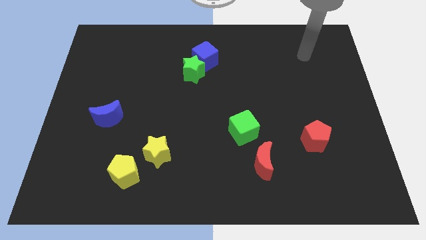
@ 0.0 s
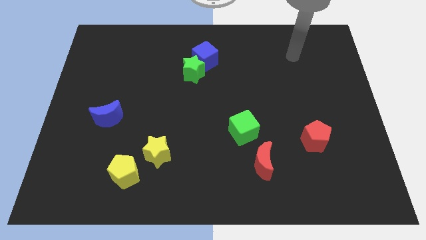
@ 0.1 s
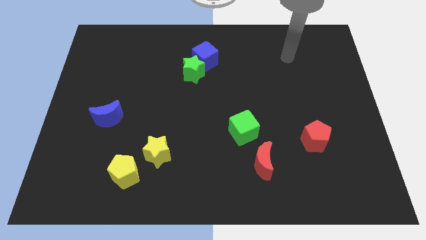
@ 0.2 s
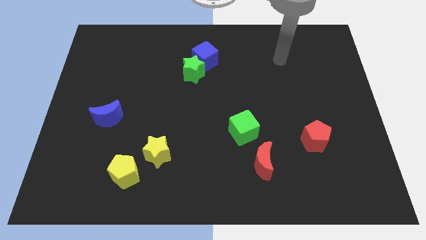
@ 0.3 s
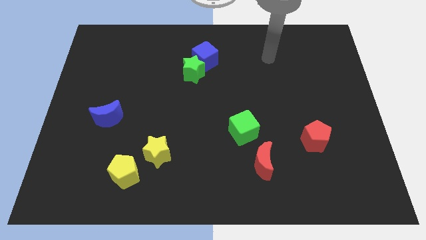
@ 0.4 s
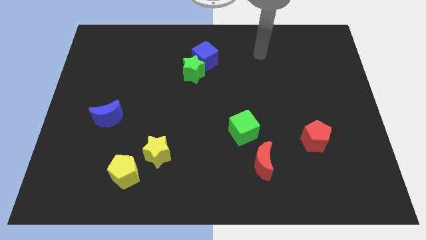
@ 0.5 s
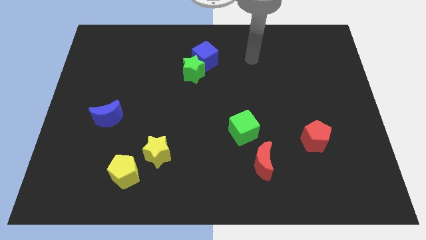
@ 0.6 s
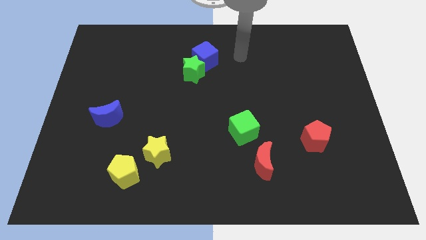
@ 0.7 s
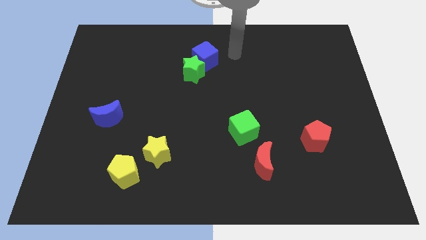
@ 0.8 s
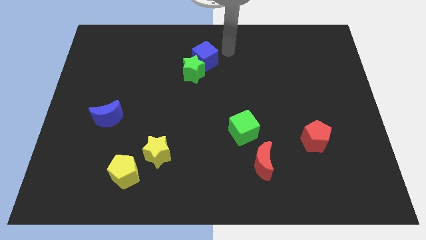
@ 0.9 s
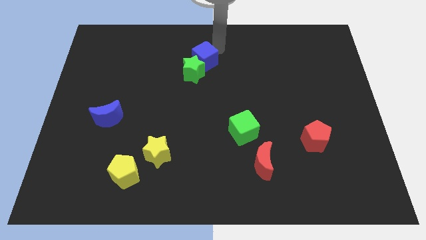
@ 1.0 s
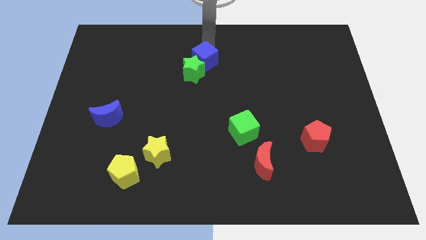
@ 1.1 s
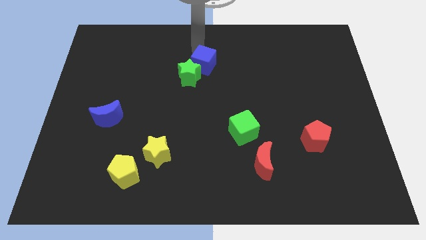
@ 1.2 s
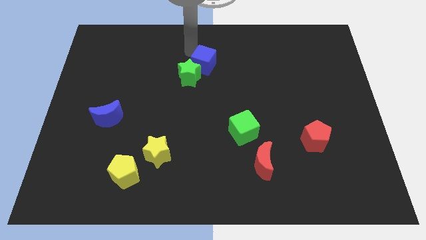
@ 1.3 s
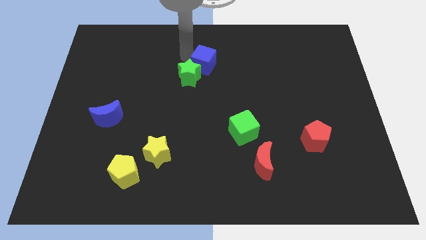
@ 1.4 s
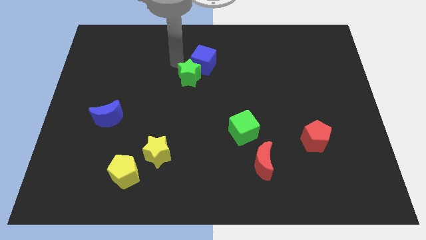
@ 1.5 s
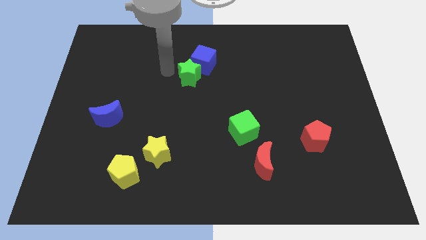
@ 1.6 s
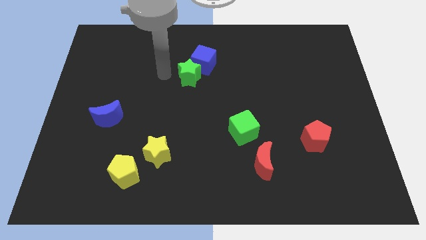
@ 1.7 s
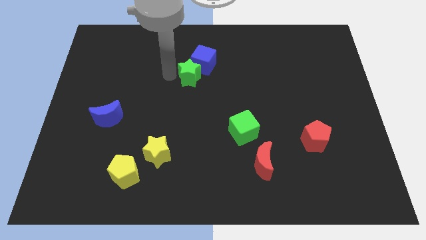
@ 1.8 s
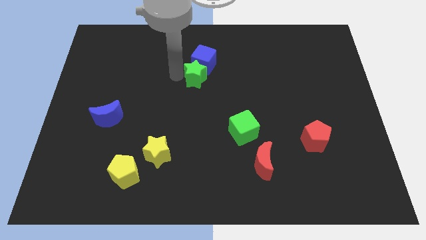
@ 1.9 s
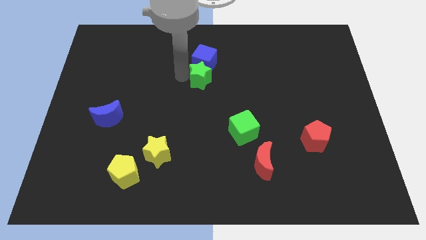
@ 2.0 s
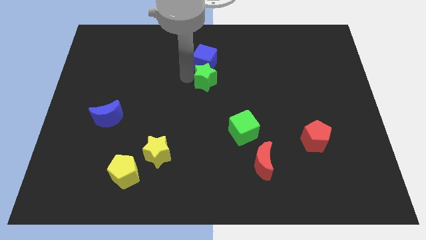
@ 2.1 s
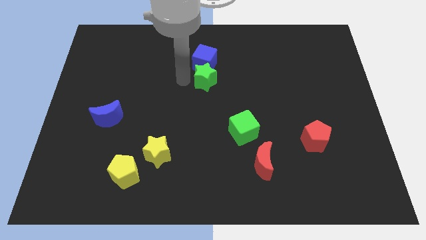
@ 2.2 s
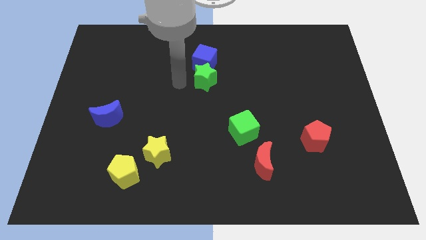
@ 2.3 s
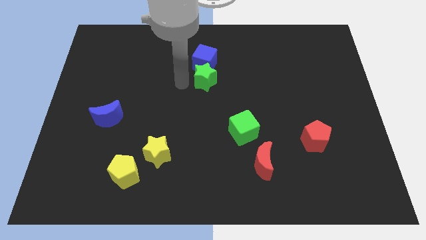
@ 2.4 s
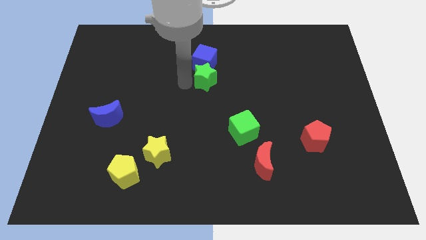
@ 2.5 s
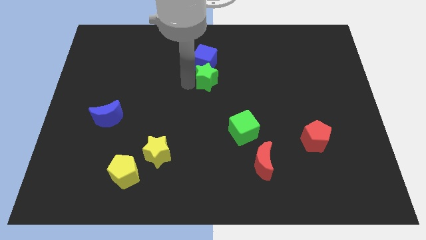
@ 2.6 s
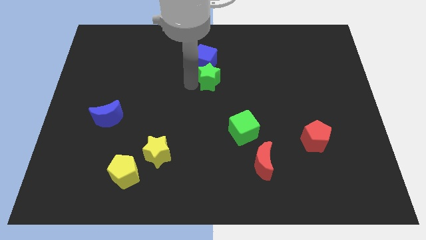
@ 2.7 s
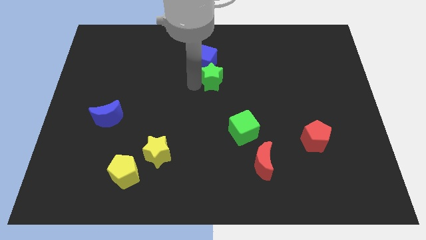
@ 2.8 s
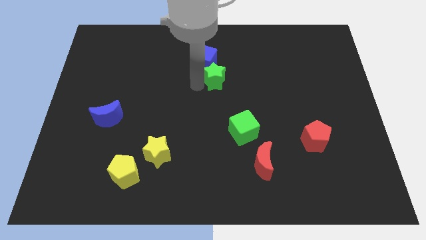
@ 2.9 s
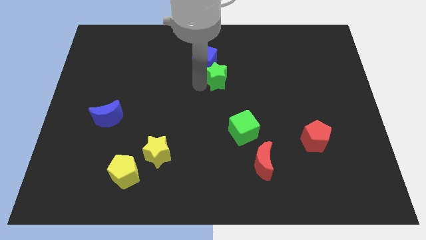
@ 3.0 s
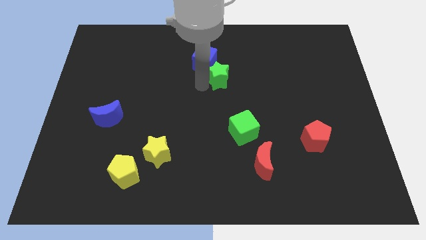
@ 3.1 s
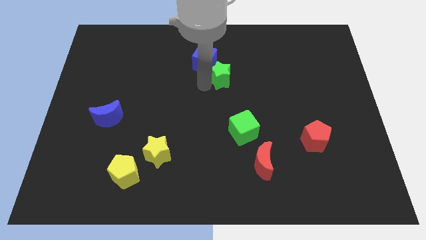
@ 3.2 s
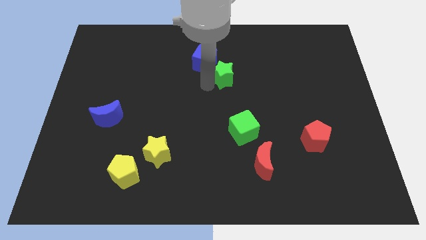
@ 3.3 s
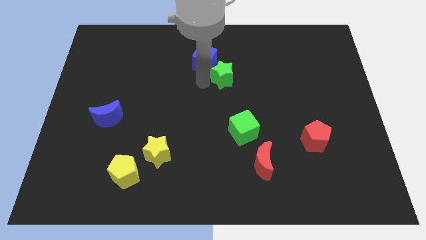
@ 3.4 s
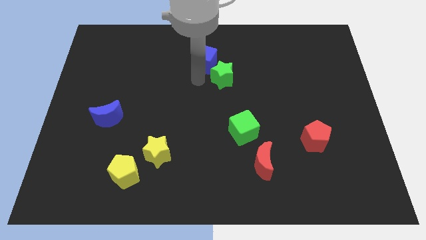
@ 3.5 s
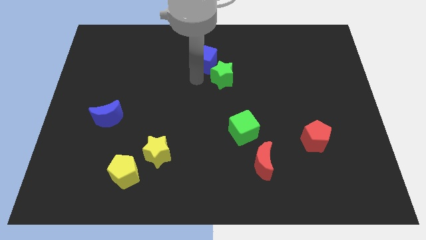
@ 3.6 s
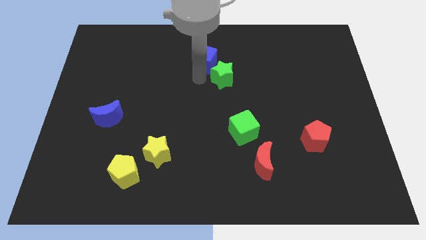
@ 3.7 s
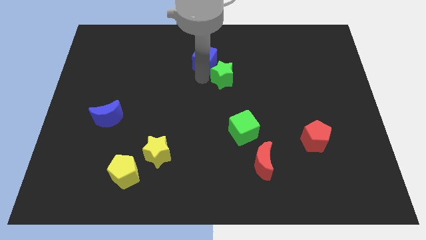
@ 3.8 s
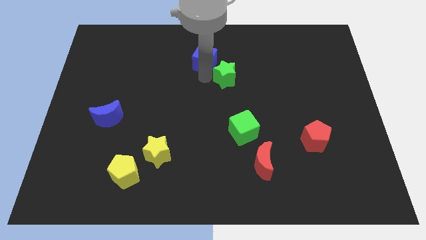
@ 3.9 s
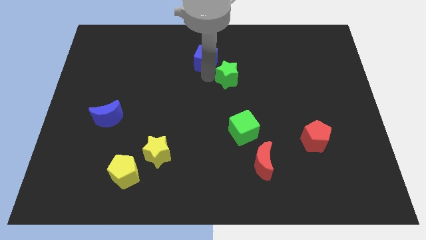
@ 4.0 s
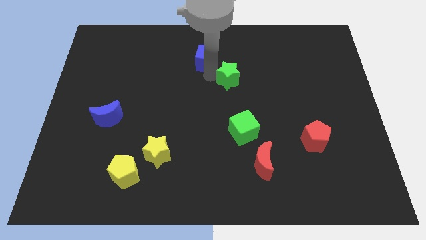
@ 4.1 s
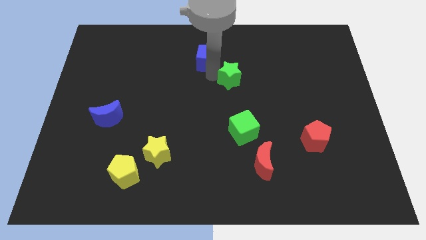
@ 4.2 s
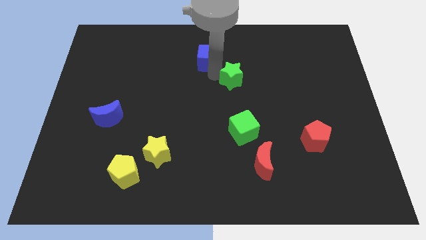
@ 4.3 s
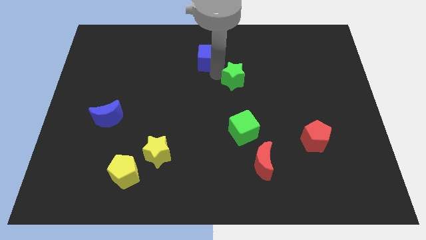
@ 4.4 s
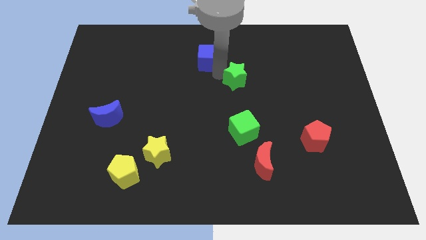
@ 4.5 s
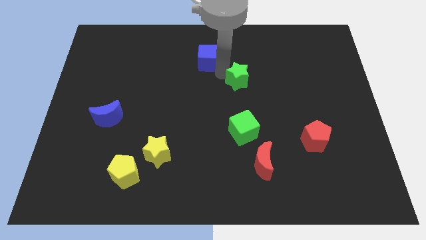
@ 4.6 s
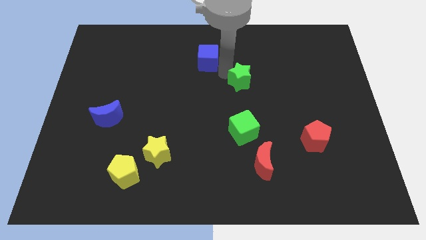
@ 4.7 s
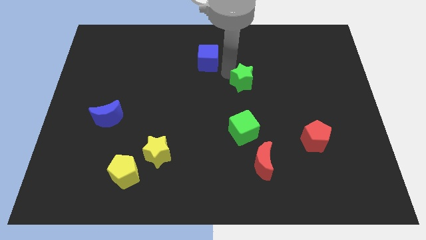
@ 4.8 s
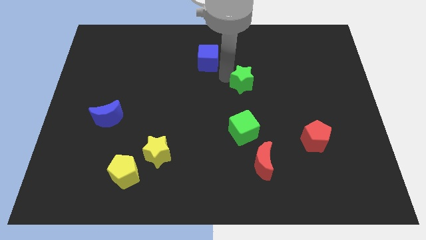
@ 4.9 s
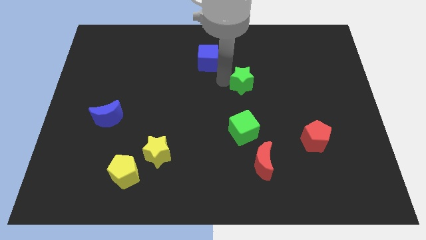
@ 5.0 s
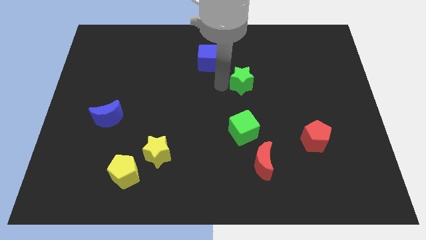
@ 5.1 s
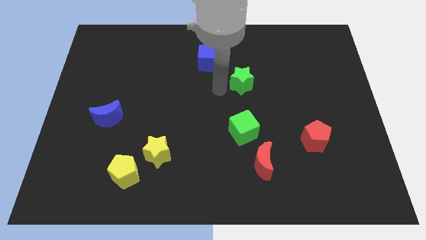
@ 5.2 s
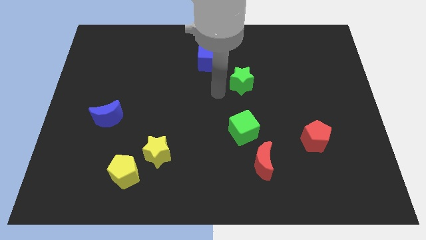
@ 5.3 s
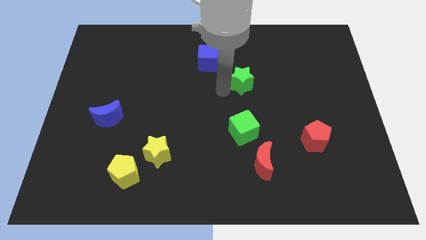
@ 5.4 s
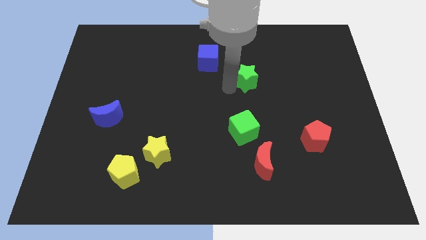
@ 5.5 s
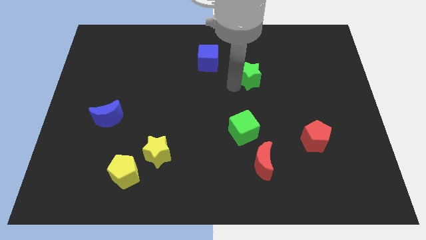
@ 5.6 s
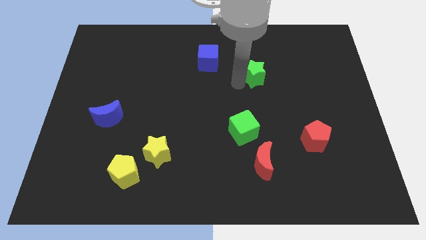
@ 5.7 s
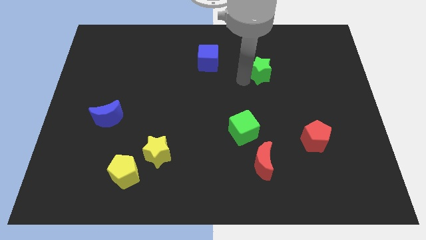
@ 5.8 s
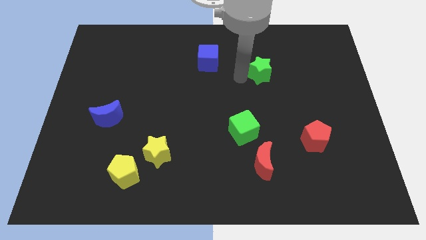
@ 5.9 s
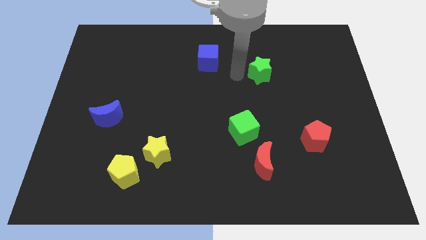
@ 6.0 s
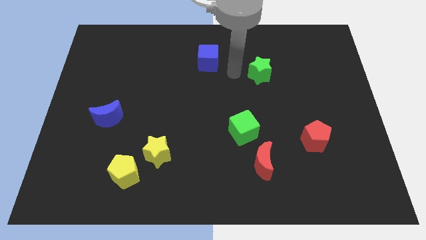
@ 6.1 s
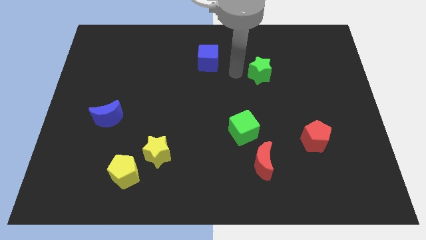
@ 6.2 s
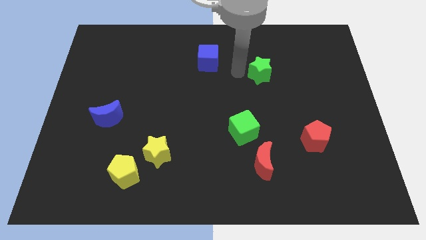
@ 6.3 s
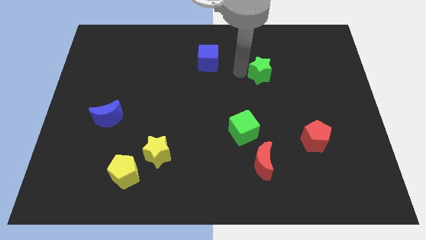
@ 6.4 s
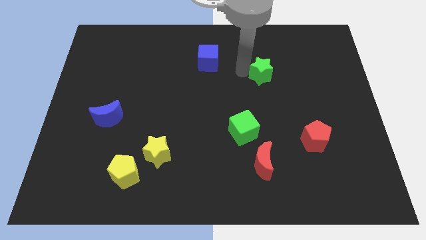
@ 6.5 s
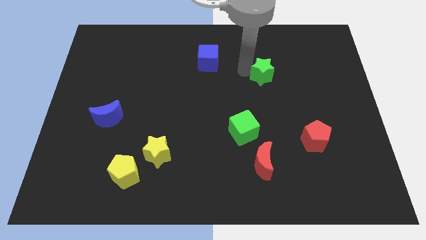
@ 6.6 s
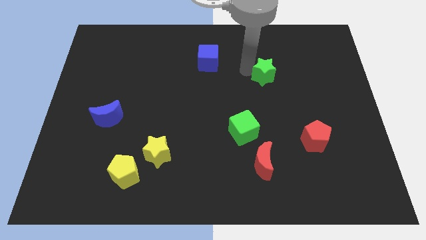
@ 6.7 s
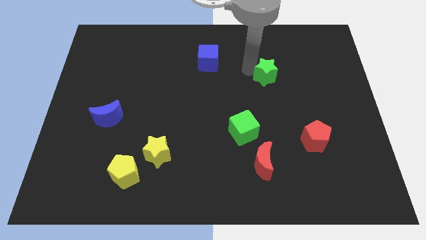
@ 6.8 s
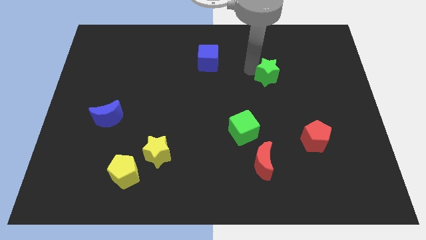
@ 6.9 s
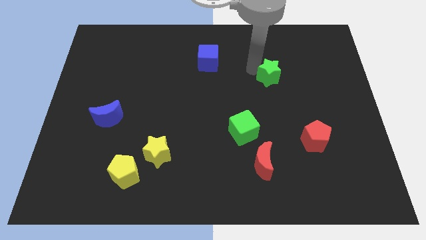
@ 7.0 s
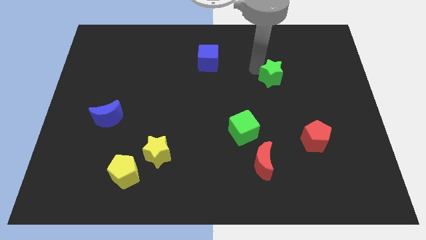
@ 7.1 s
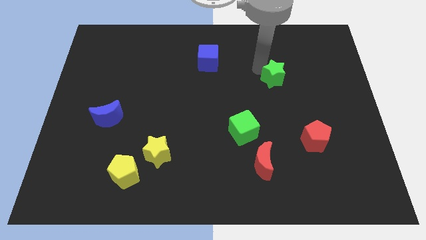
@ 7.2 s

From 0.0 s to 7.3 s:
slide the green star to the right

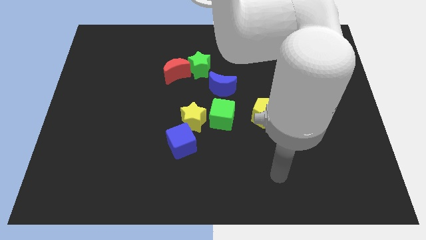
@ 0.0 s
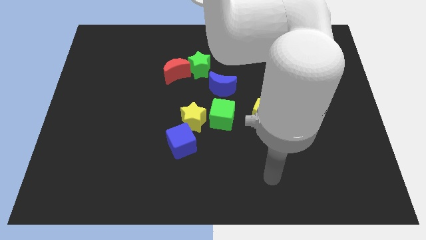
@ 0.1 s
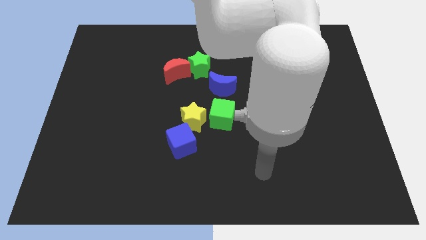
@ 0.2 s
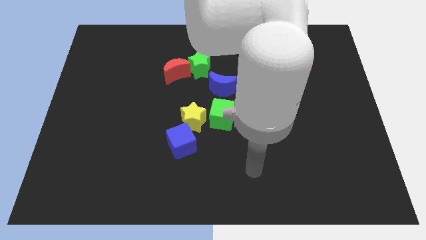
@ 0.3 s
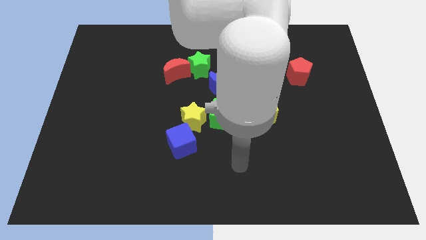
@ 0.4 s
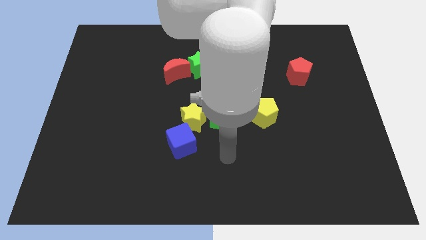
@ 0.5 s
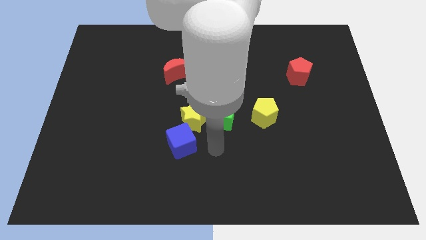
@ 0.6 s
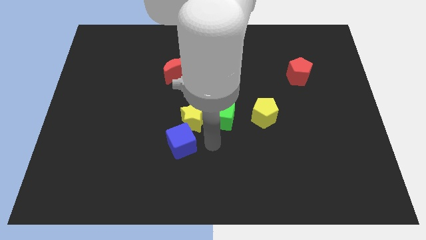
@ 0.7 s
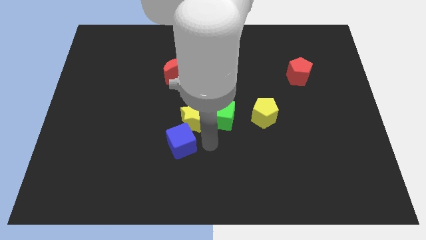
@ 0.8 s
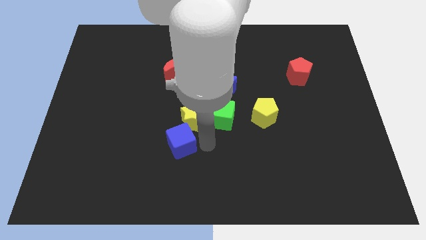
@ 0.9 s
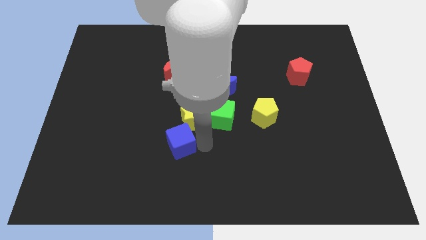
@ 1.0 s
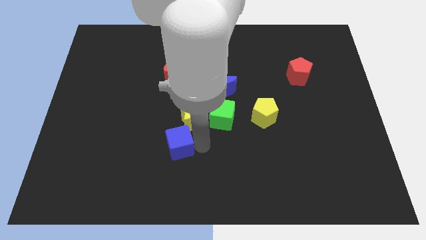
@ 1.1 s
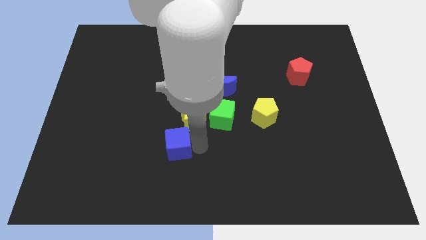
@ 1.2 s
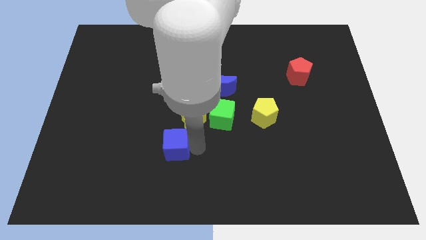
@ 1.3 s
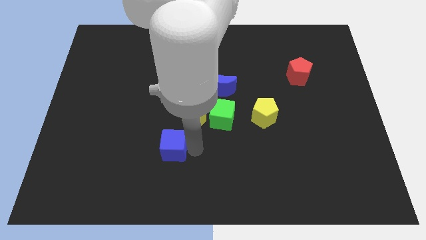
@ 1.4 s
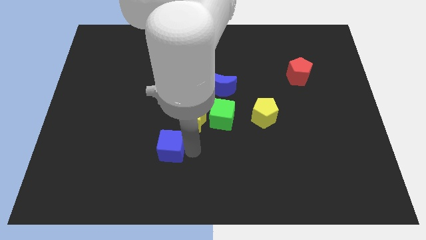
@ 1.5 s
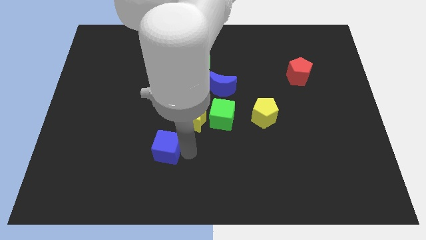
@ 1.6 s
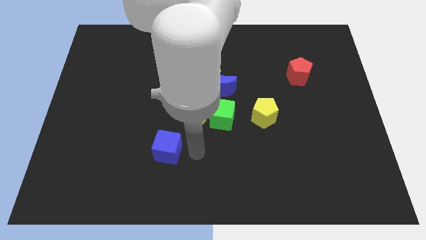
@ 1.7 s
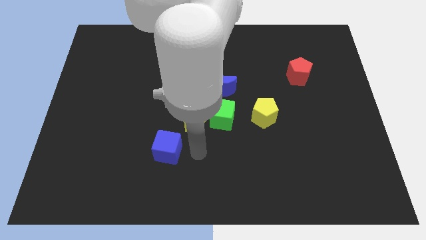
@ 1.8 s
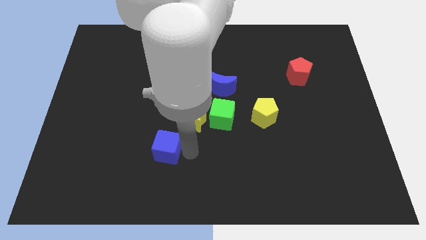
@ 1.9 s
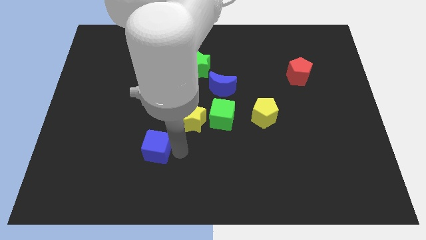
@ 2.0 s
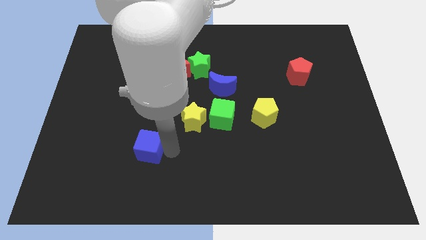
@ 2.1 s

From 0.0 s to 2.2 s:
slightly move the blue cube left
